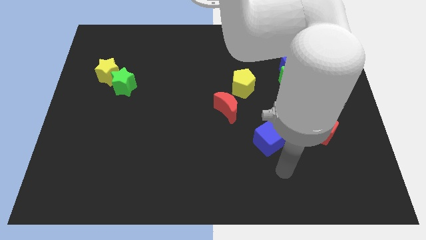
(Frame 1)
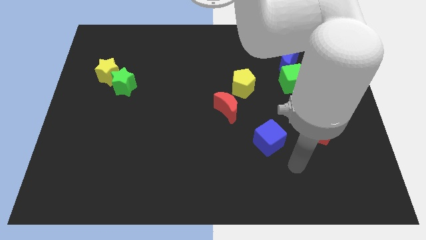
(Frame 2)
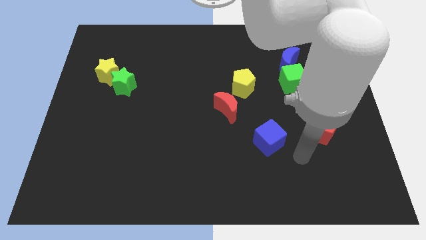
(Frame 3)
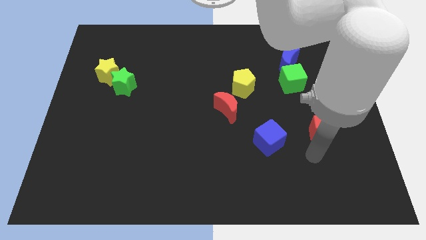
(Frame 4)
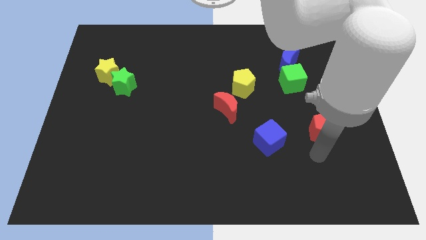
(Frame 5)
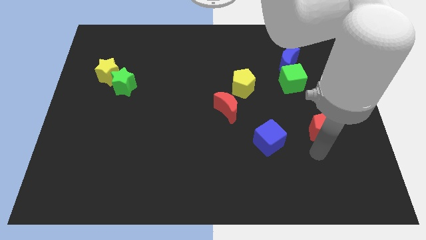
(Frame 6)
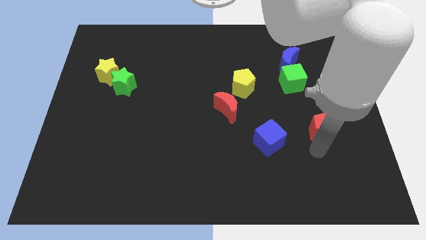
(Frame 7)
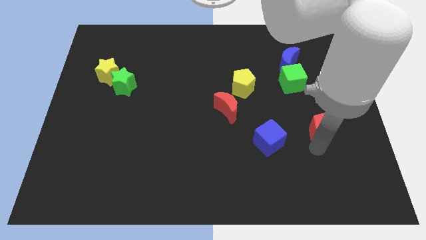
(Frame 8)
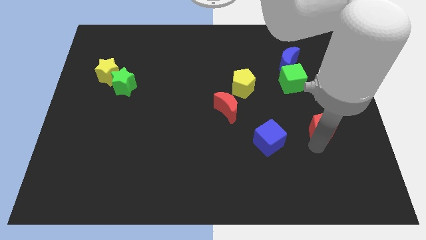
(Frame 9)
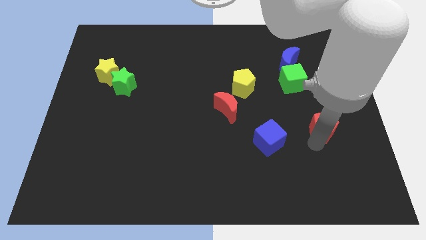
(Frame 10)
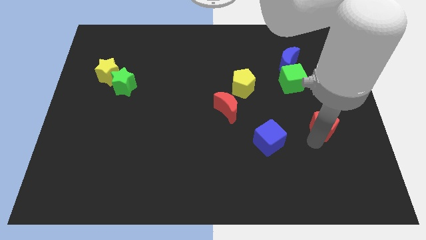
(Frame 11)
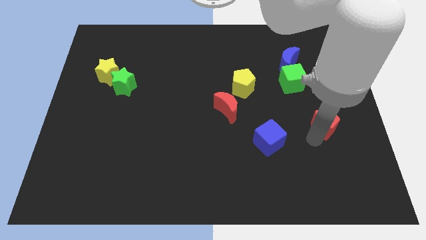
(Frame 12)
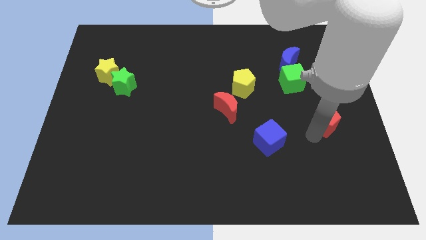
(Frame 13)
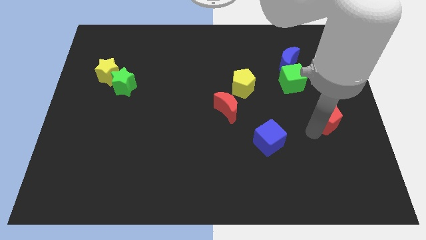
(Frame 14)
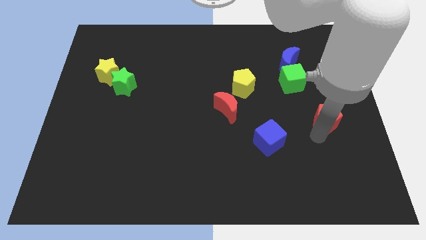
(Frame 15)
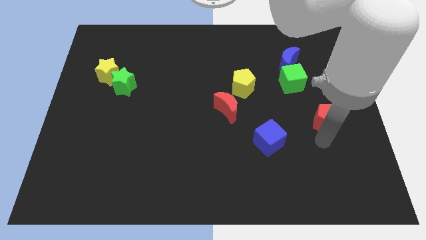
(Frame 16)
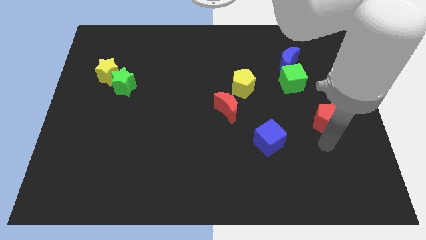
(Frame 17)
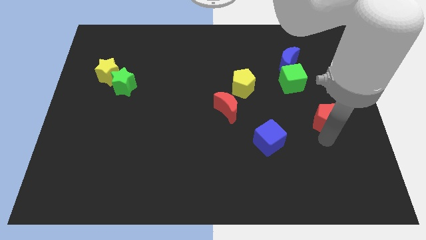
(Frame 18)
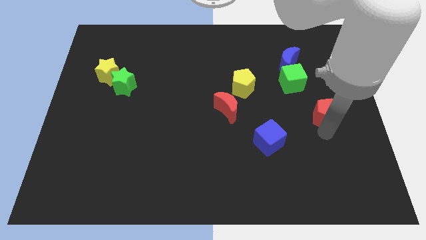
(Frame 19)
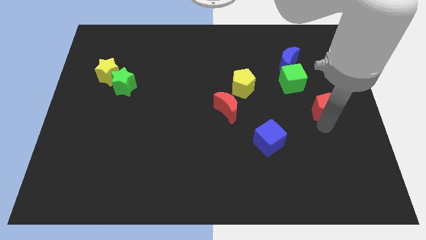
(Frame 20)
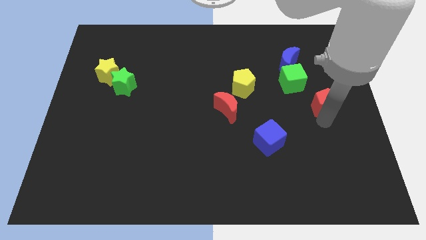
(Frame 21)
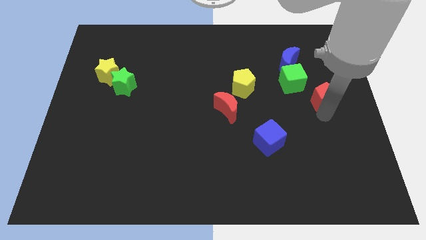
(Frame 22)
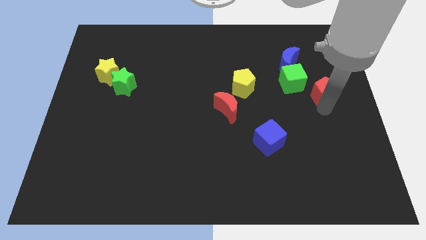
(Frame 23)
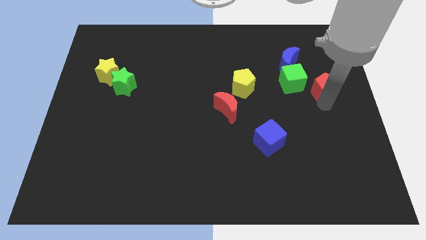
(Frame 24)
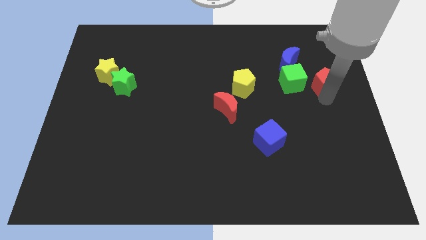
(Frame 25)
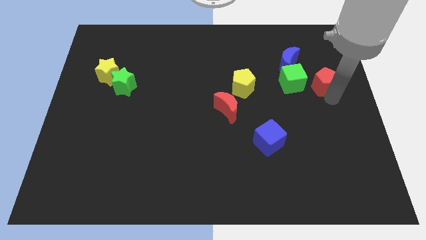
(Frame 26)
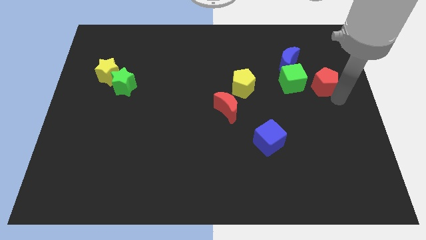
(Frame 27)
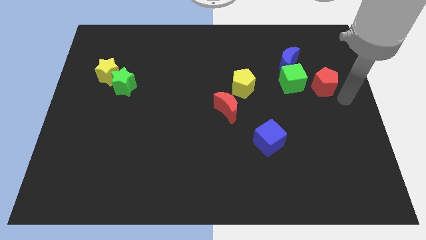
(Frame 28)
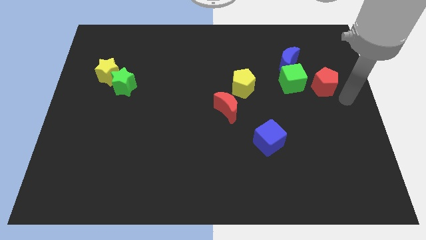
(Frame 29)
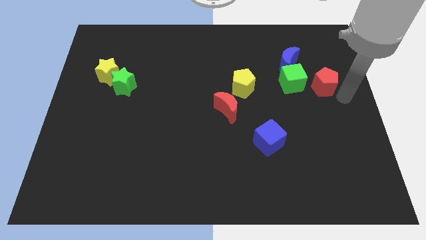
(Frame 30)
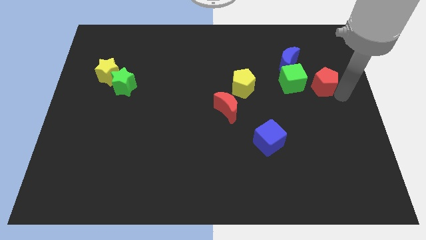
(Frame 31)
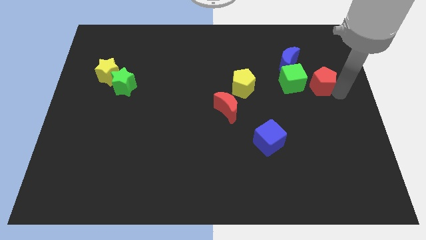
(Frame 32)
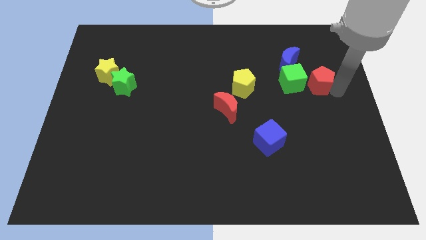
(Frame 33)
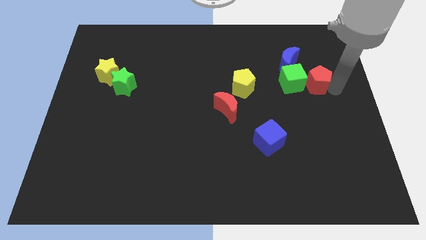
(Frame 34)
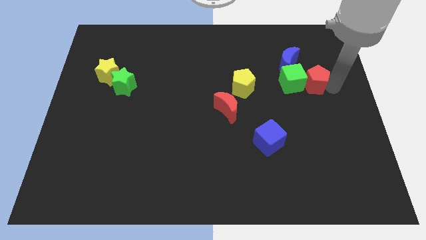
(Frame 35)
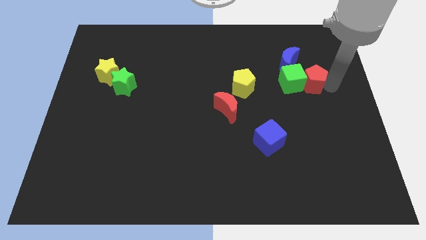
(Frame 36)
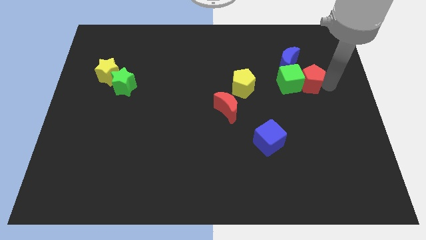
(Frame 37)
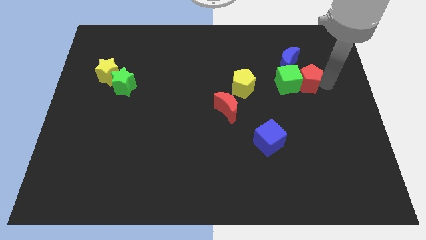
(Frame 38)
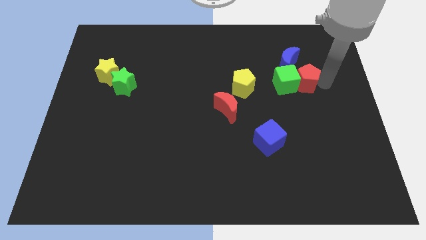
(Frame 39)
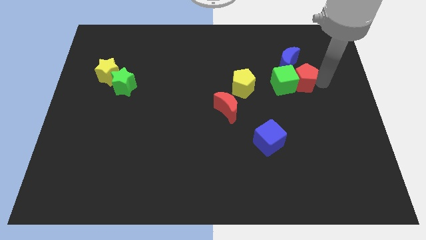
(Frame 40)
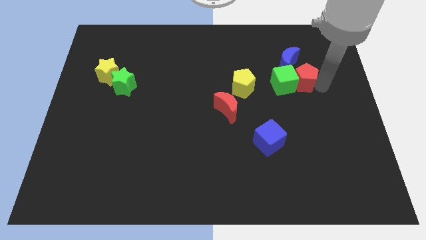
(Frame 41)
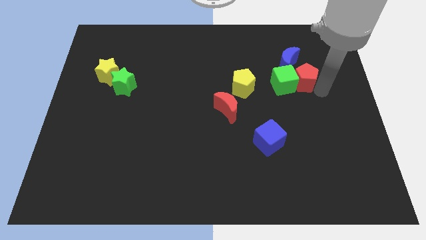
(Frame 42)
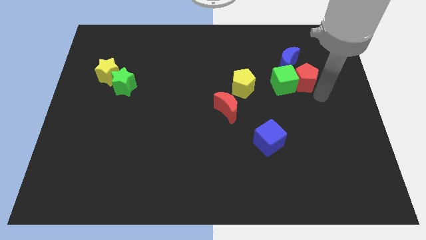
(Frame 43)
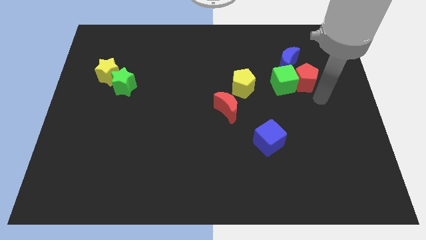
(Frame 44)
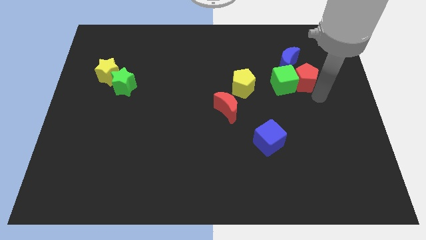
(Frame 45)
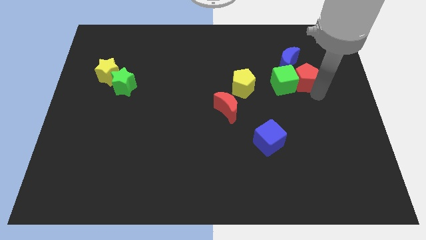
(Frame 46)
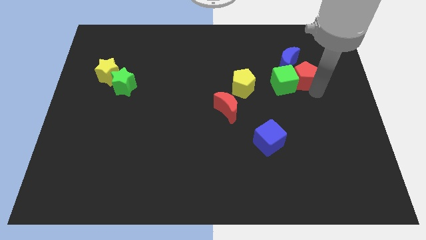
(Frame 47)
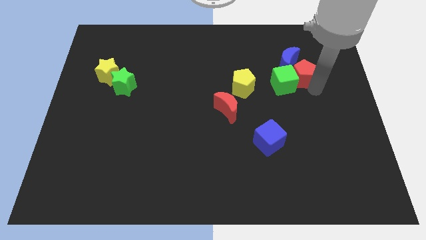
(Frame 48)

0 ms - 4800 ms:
push the red pentagon next to the blue moon

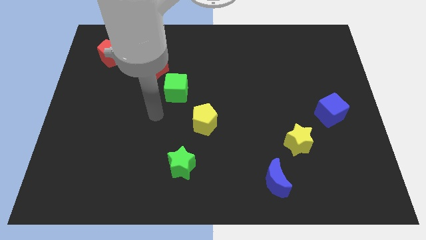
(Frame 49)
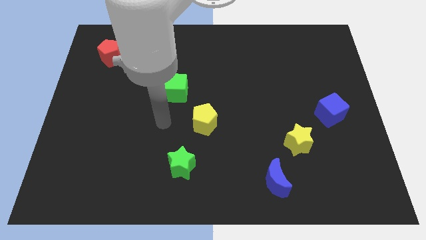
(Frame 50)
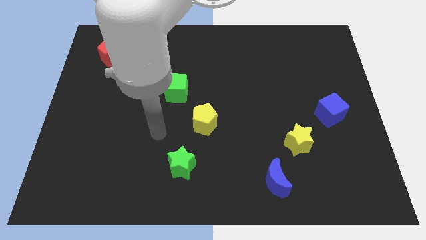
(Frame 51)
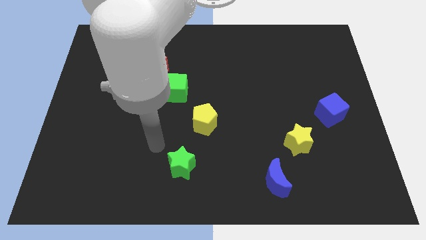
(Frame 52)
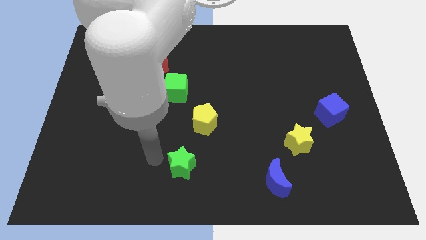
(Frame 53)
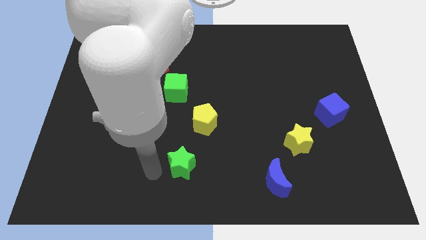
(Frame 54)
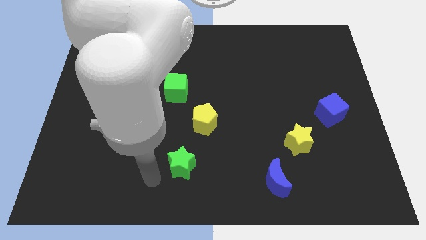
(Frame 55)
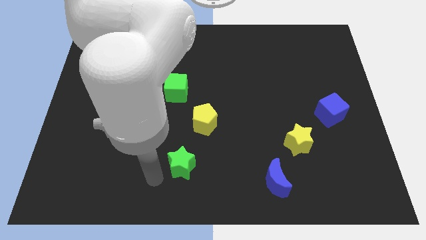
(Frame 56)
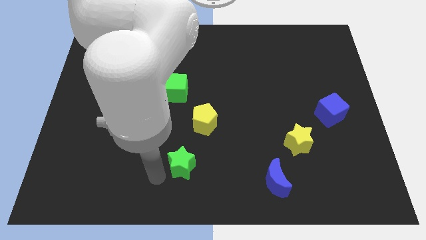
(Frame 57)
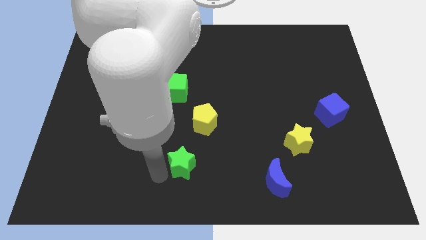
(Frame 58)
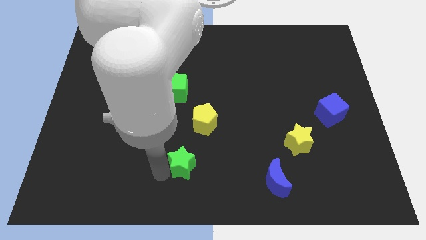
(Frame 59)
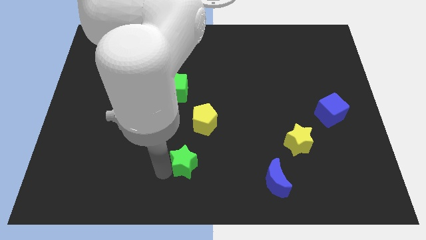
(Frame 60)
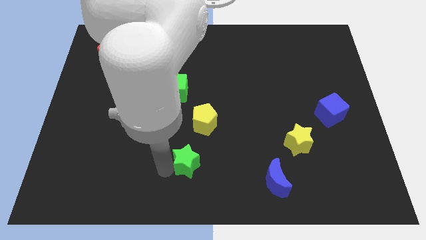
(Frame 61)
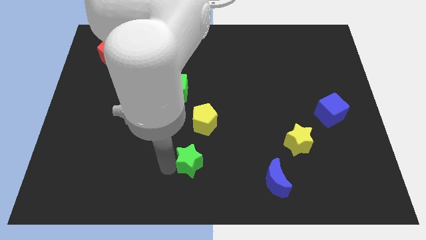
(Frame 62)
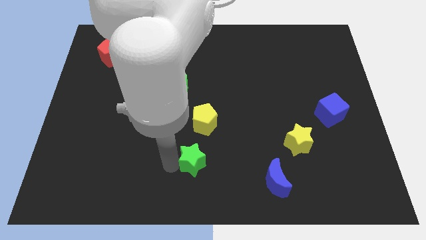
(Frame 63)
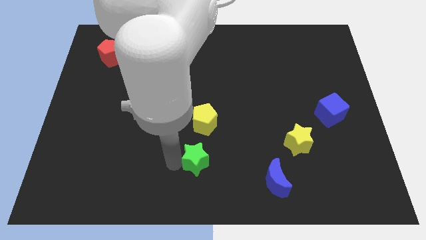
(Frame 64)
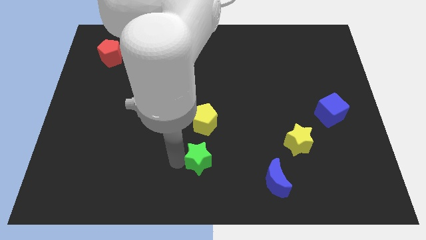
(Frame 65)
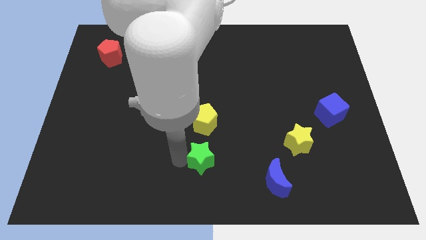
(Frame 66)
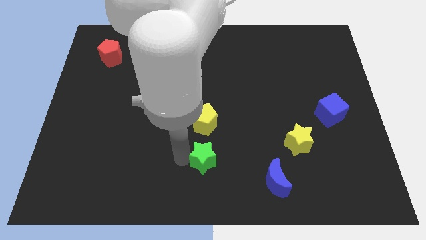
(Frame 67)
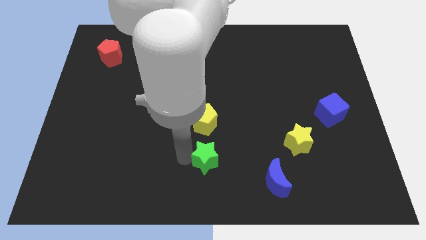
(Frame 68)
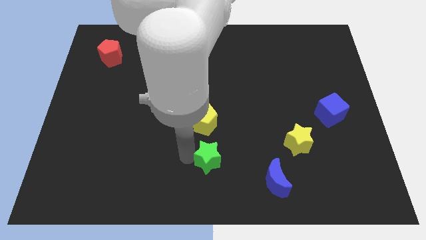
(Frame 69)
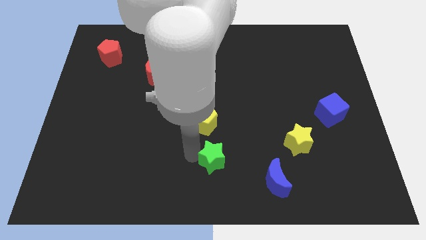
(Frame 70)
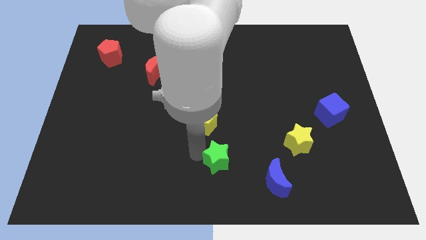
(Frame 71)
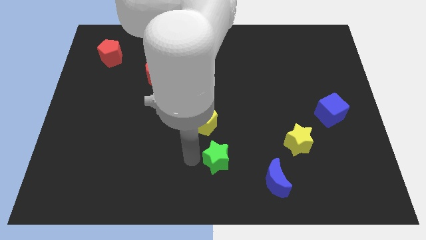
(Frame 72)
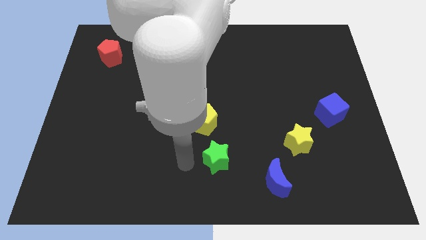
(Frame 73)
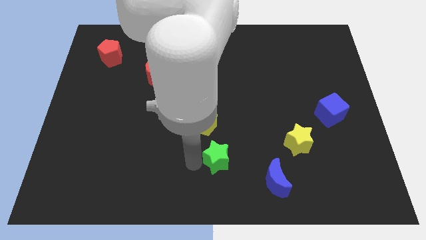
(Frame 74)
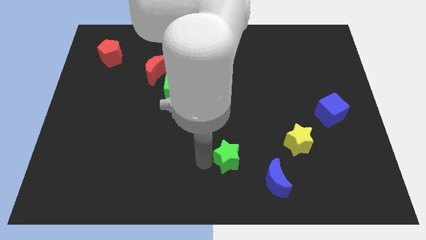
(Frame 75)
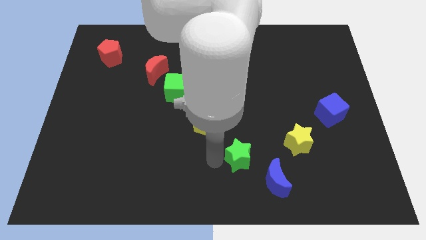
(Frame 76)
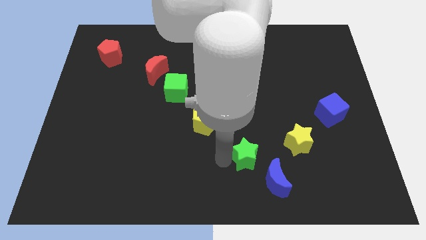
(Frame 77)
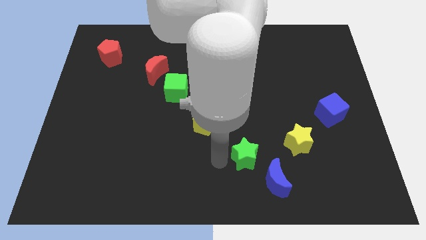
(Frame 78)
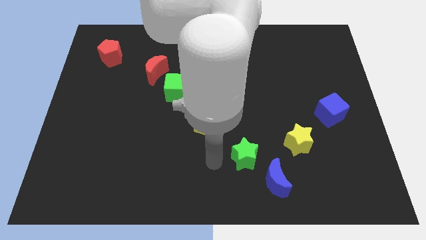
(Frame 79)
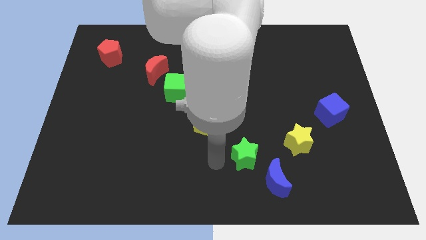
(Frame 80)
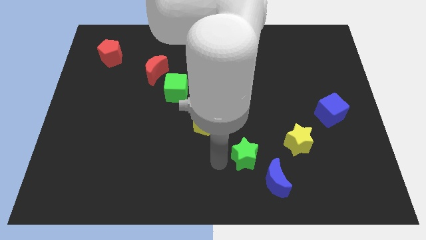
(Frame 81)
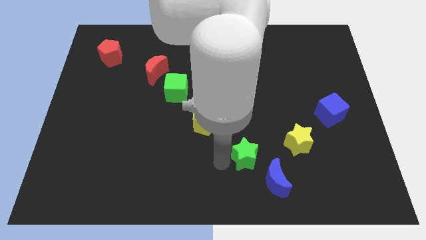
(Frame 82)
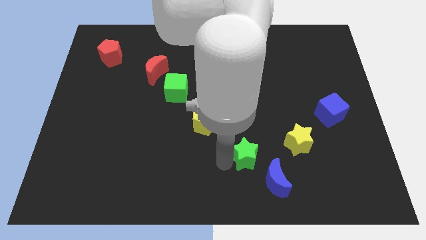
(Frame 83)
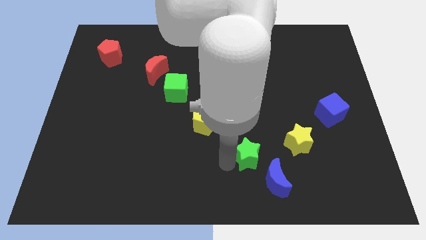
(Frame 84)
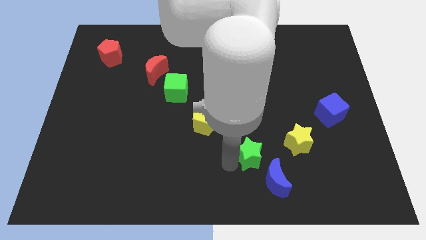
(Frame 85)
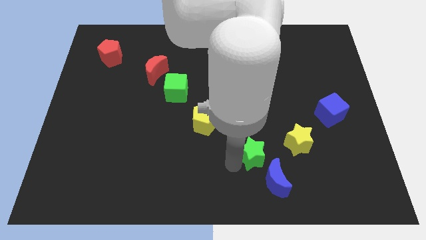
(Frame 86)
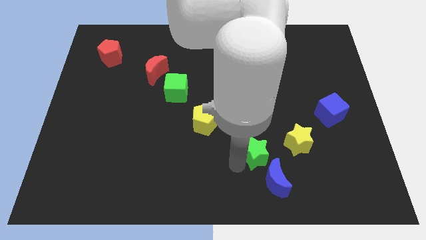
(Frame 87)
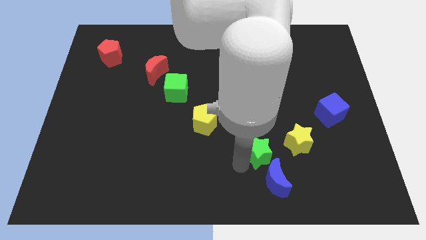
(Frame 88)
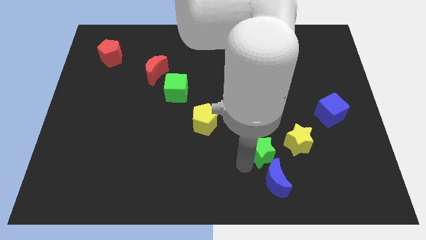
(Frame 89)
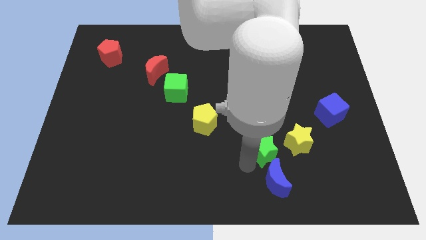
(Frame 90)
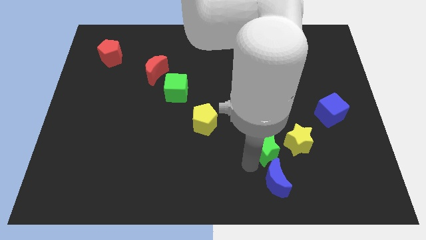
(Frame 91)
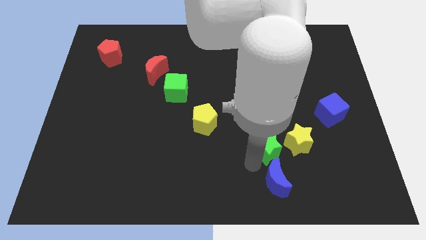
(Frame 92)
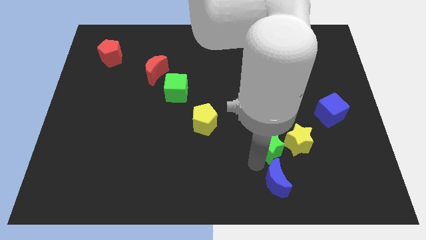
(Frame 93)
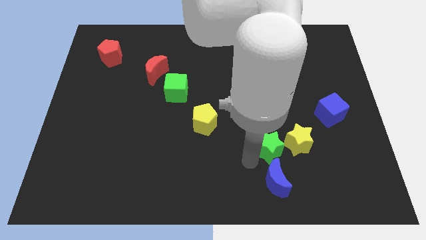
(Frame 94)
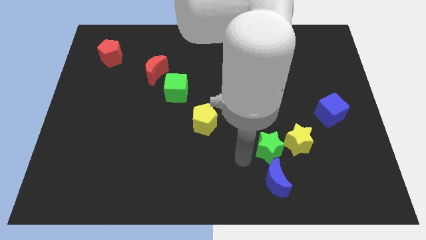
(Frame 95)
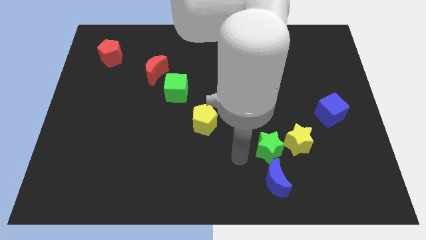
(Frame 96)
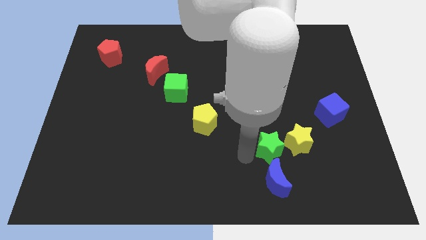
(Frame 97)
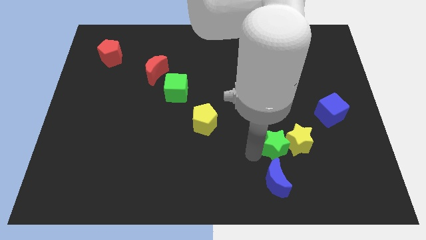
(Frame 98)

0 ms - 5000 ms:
push the green star close to the yellow star
